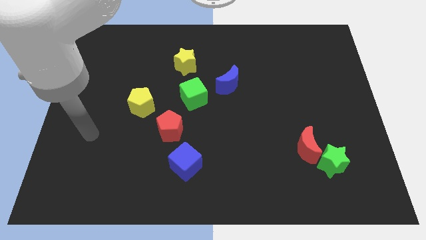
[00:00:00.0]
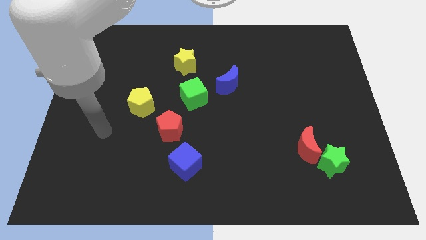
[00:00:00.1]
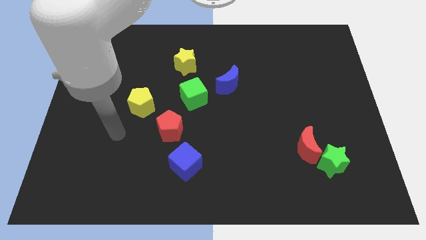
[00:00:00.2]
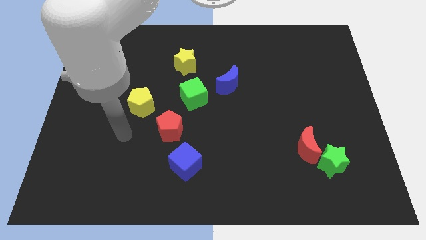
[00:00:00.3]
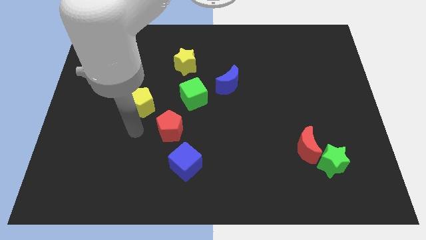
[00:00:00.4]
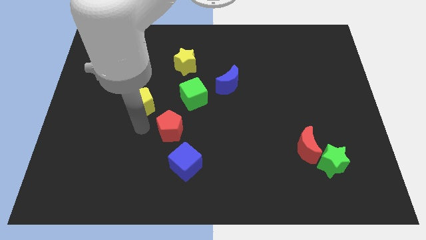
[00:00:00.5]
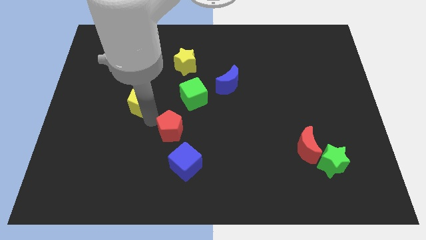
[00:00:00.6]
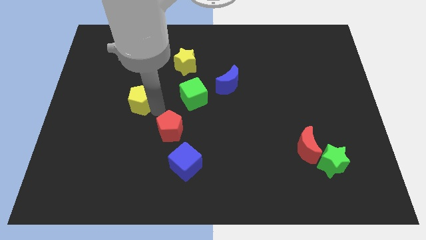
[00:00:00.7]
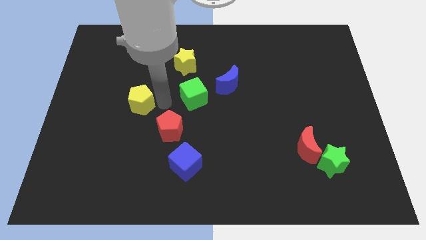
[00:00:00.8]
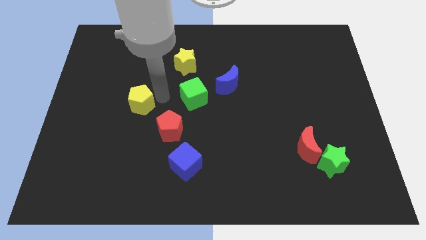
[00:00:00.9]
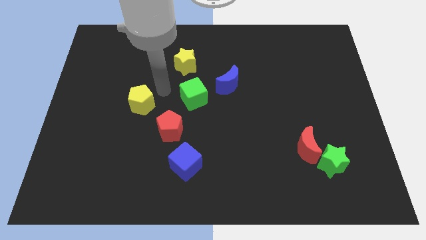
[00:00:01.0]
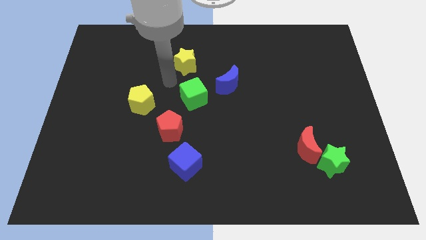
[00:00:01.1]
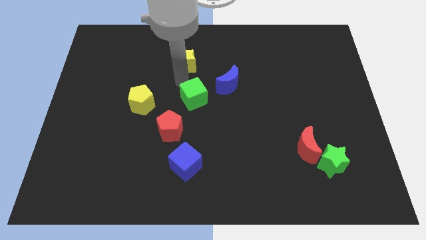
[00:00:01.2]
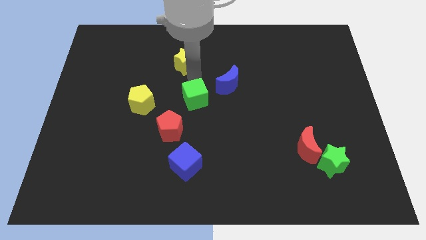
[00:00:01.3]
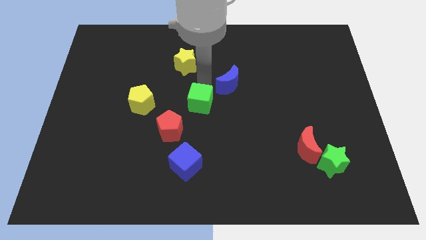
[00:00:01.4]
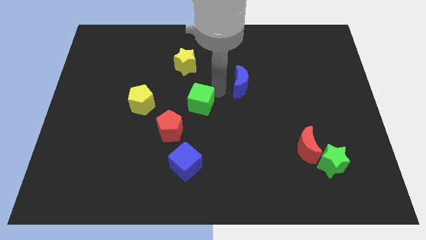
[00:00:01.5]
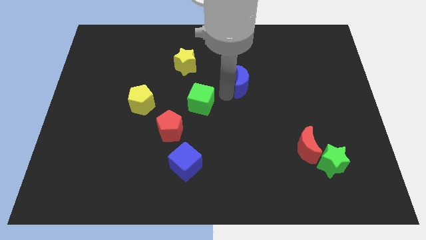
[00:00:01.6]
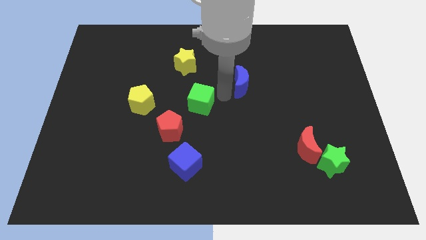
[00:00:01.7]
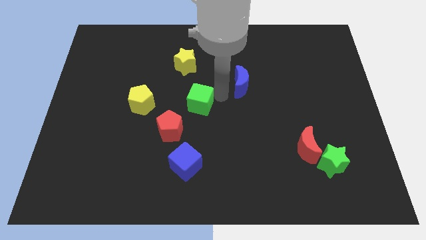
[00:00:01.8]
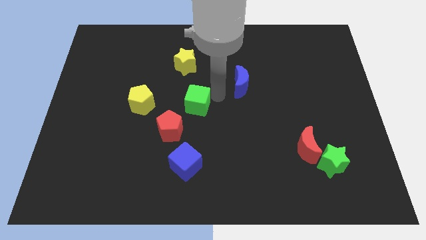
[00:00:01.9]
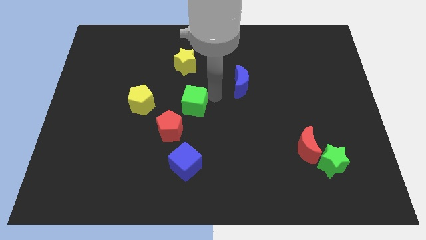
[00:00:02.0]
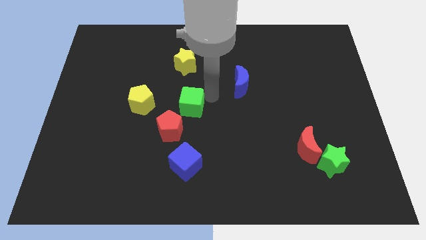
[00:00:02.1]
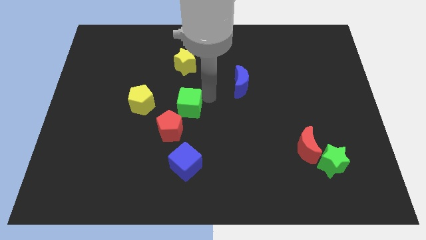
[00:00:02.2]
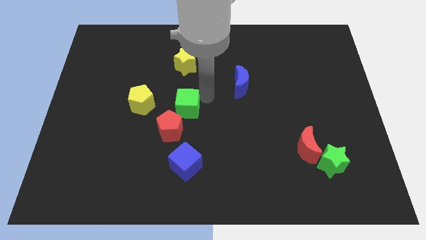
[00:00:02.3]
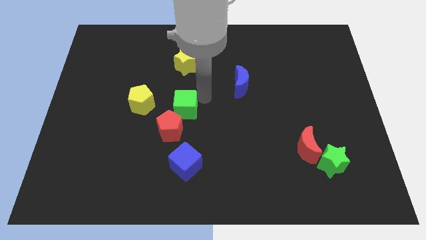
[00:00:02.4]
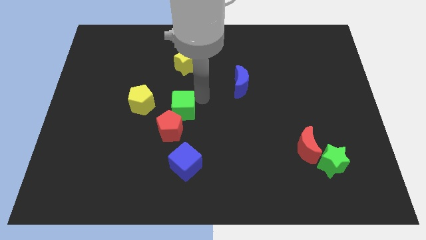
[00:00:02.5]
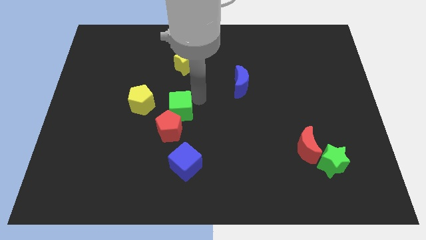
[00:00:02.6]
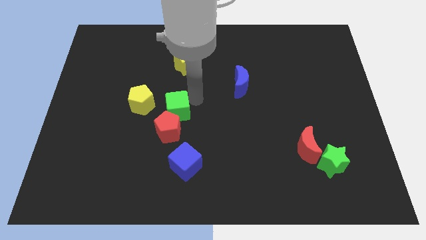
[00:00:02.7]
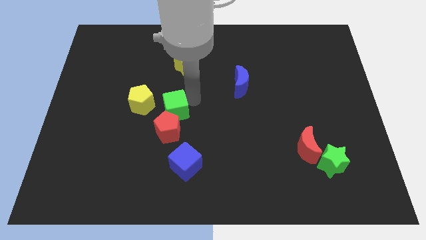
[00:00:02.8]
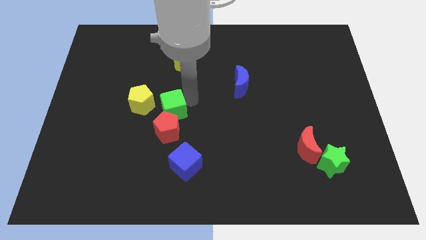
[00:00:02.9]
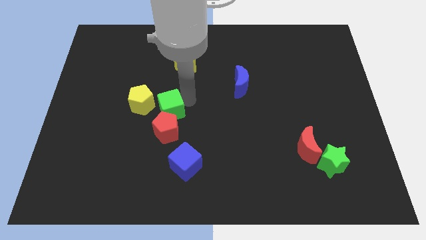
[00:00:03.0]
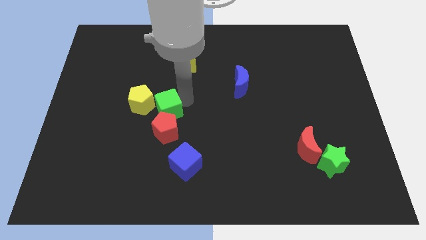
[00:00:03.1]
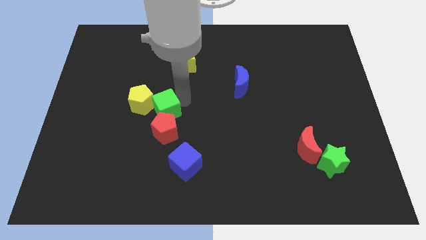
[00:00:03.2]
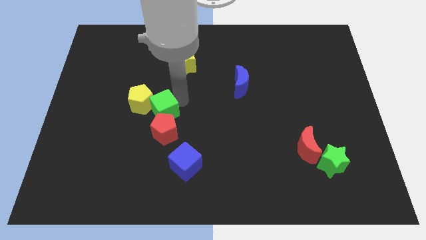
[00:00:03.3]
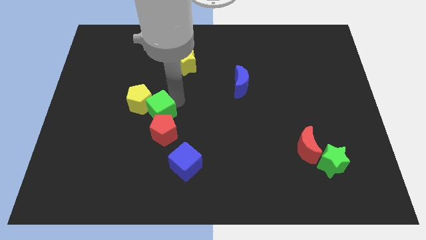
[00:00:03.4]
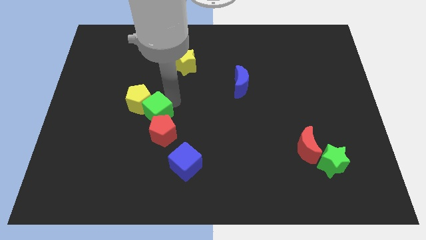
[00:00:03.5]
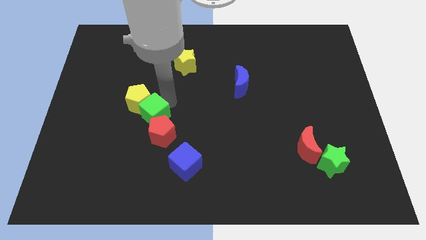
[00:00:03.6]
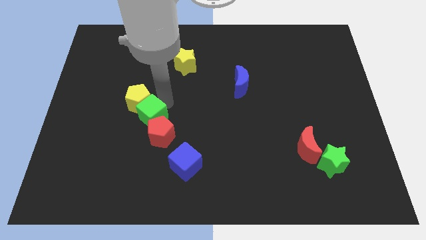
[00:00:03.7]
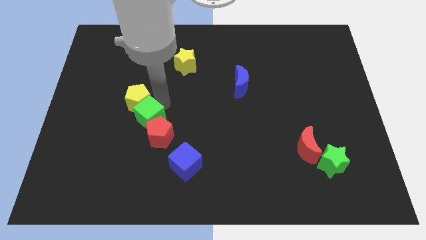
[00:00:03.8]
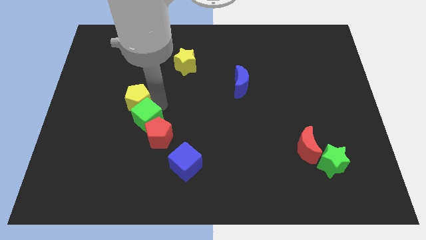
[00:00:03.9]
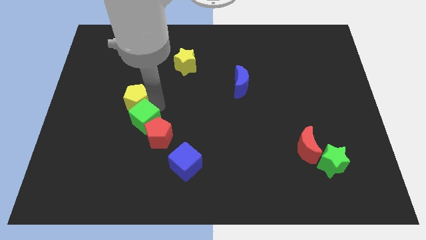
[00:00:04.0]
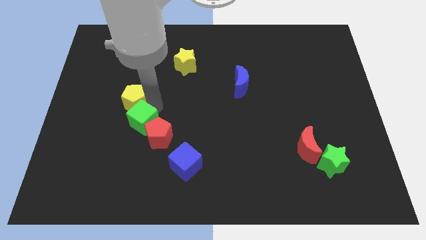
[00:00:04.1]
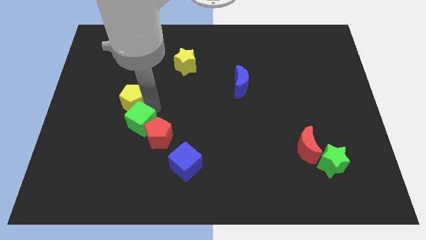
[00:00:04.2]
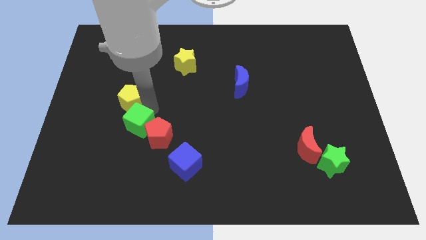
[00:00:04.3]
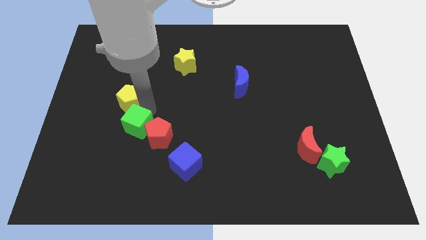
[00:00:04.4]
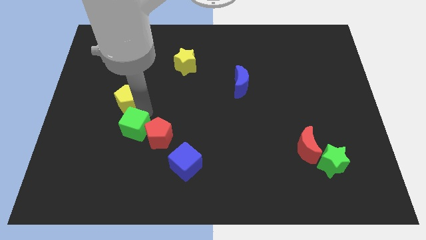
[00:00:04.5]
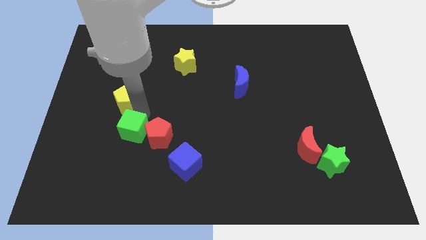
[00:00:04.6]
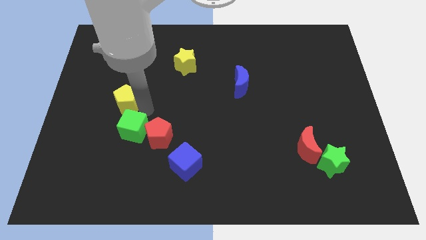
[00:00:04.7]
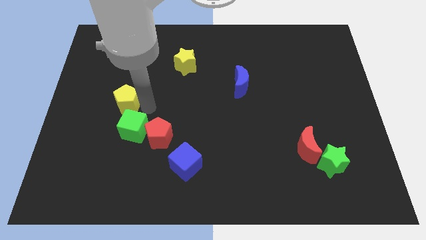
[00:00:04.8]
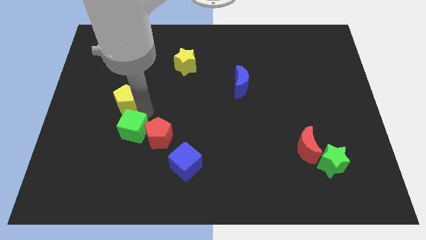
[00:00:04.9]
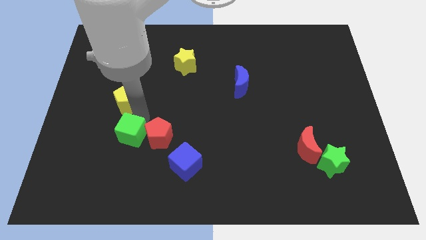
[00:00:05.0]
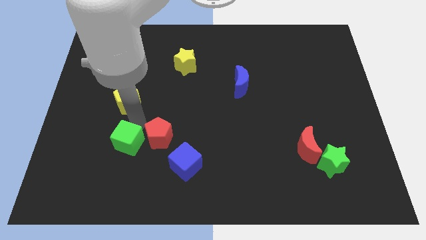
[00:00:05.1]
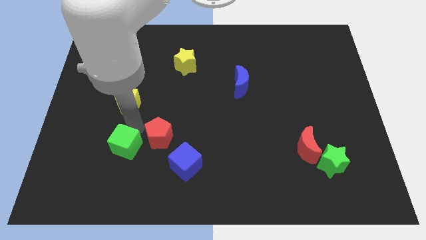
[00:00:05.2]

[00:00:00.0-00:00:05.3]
move the green cube diagonally downwards and left

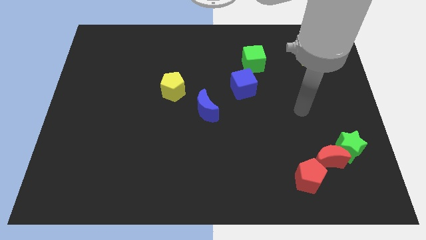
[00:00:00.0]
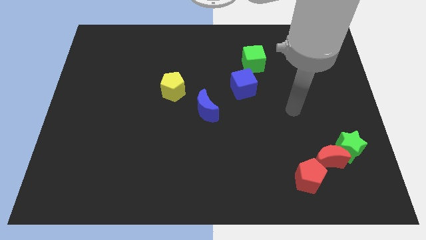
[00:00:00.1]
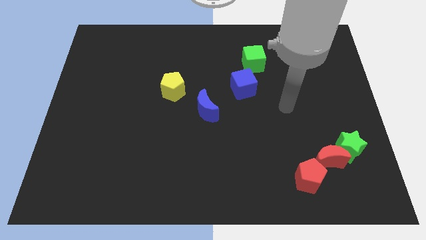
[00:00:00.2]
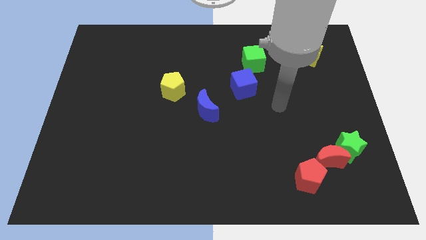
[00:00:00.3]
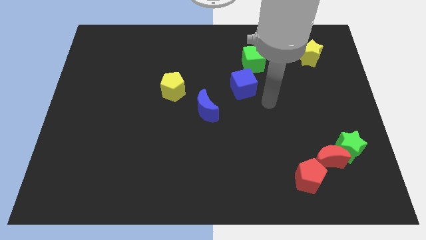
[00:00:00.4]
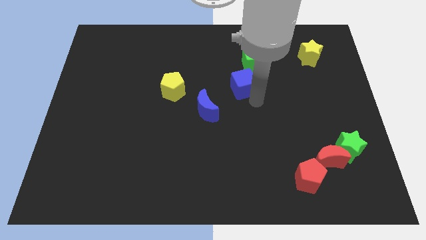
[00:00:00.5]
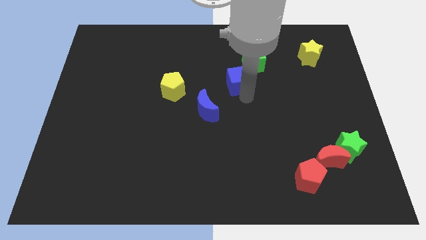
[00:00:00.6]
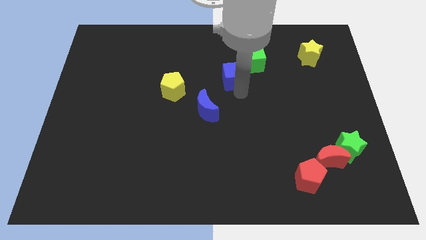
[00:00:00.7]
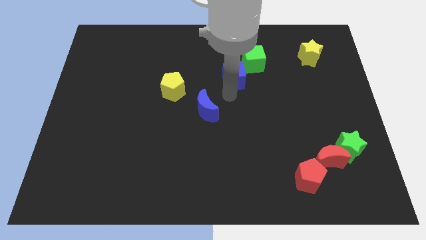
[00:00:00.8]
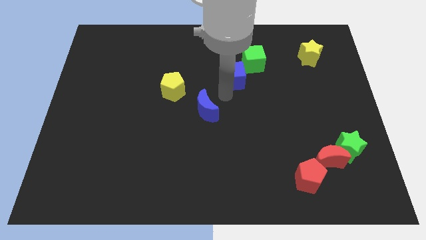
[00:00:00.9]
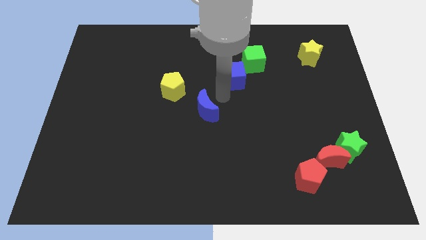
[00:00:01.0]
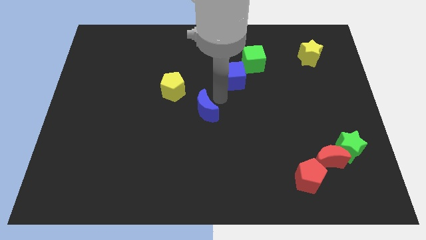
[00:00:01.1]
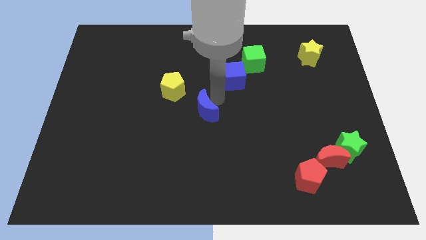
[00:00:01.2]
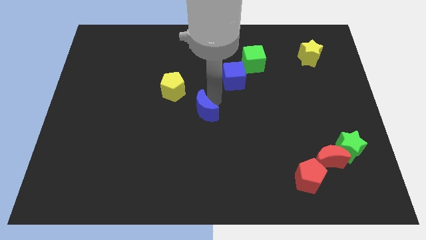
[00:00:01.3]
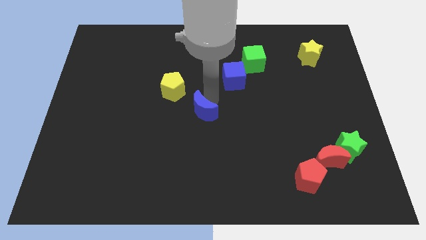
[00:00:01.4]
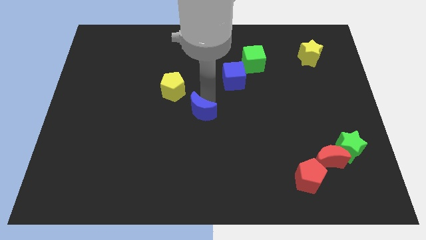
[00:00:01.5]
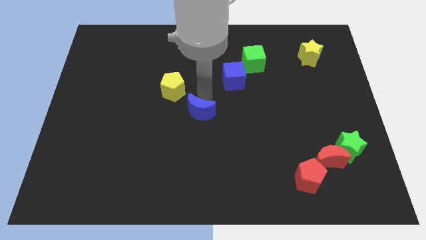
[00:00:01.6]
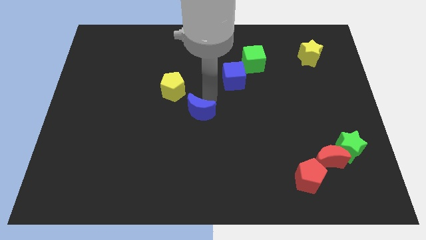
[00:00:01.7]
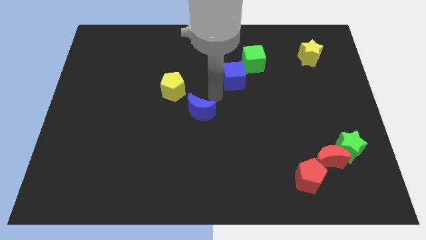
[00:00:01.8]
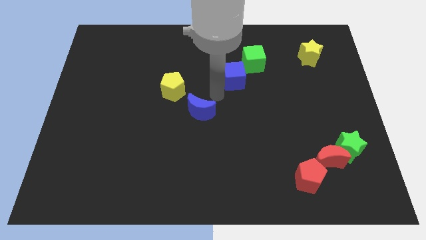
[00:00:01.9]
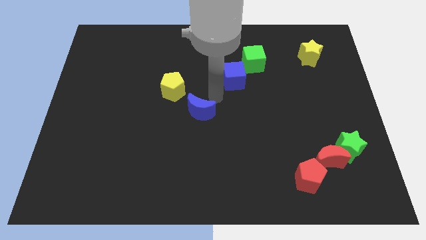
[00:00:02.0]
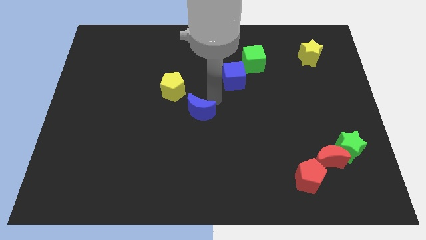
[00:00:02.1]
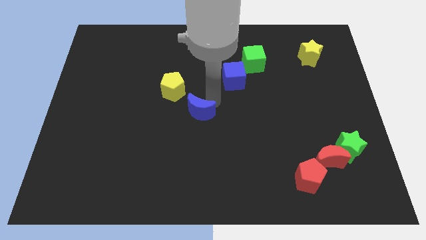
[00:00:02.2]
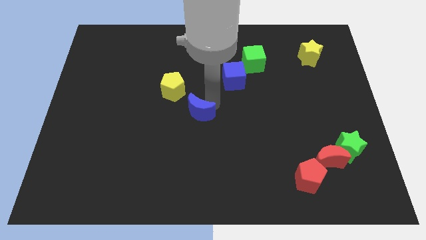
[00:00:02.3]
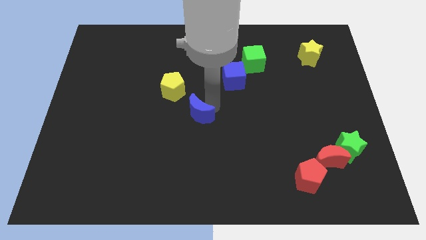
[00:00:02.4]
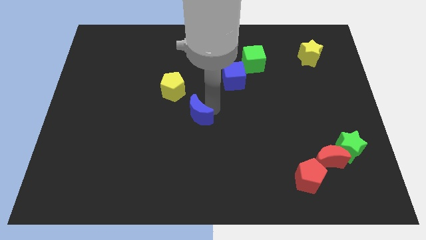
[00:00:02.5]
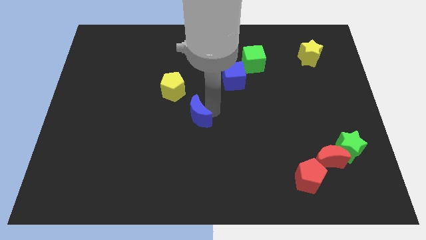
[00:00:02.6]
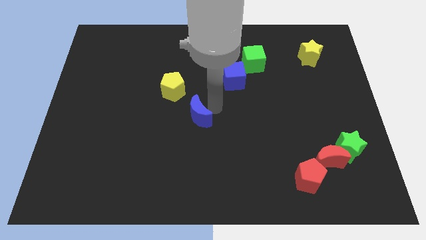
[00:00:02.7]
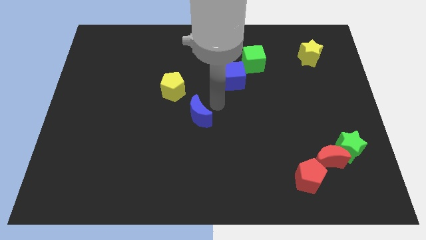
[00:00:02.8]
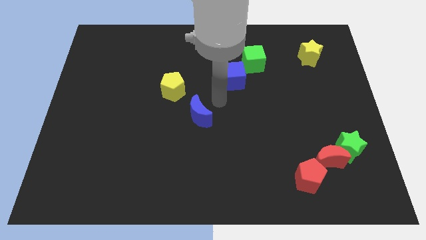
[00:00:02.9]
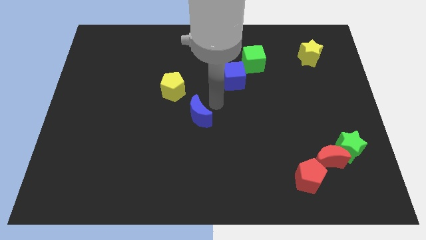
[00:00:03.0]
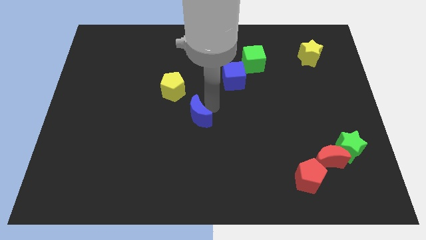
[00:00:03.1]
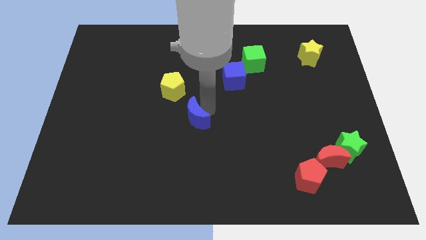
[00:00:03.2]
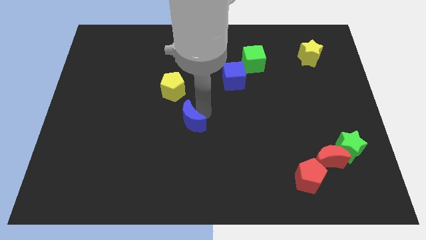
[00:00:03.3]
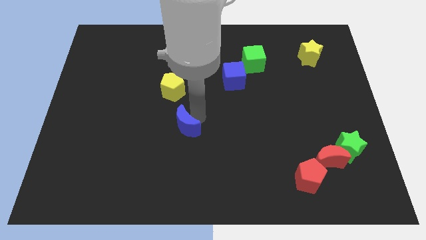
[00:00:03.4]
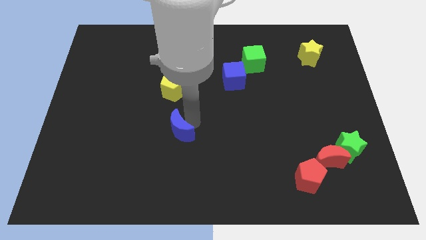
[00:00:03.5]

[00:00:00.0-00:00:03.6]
slightly move the blue moon downwards and then left
